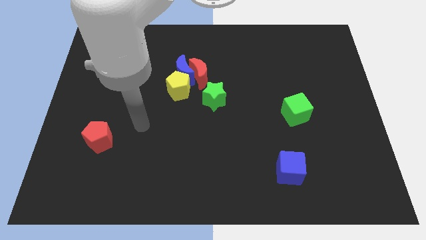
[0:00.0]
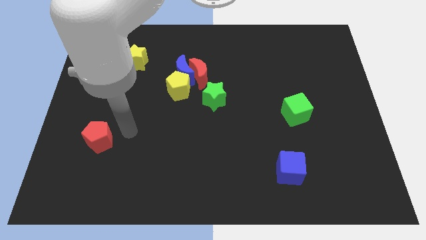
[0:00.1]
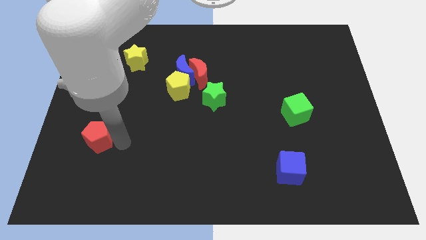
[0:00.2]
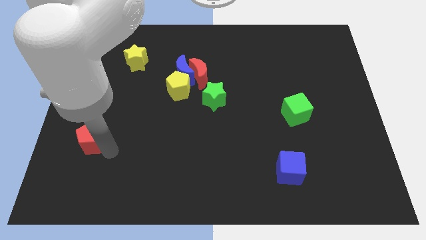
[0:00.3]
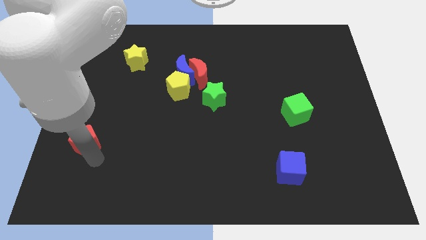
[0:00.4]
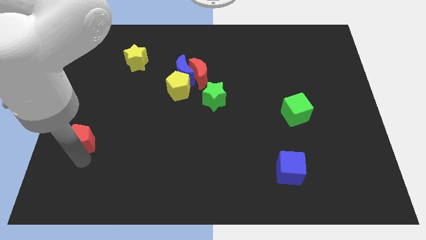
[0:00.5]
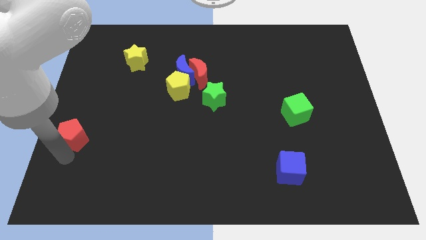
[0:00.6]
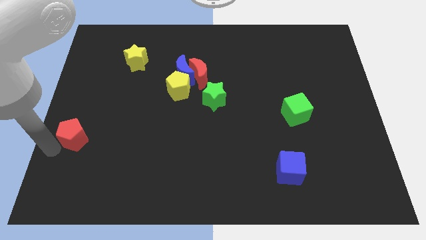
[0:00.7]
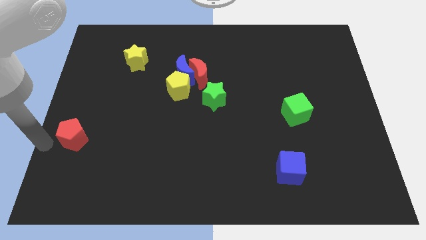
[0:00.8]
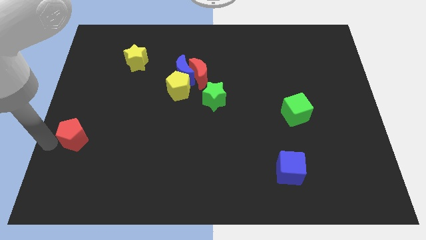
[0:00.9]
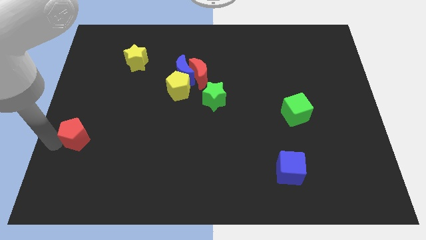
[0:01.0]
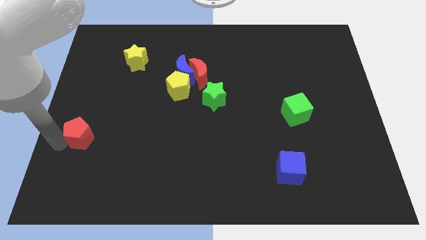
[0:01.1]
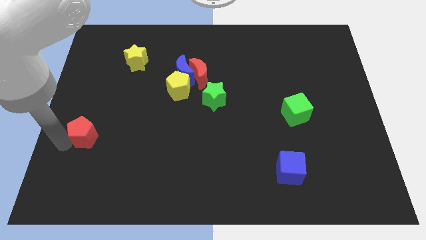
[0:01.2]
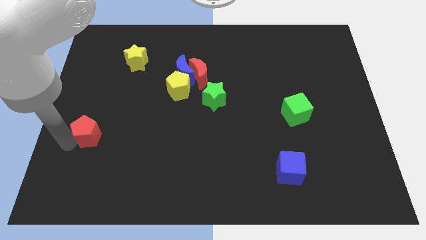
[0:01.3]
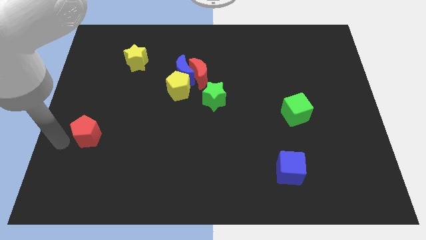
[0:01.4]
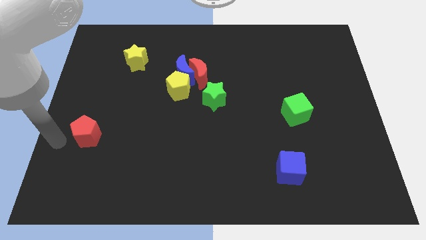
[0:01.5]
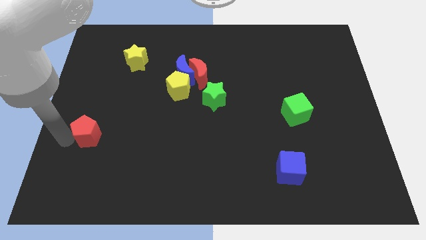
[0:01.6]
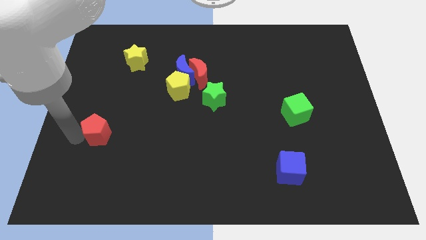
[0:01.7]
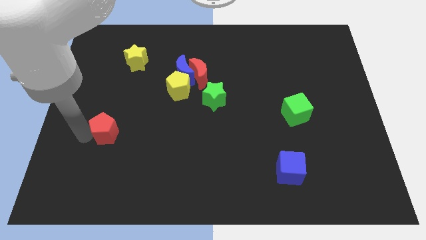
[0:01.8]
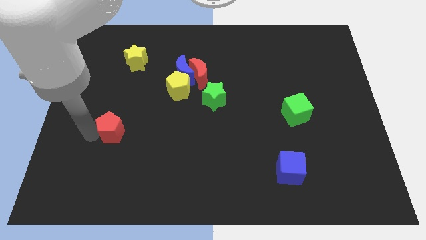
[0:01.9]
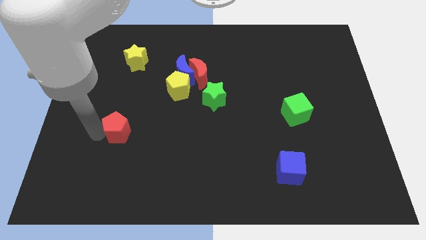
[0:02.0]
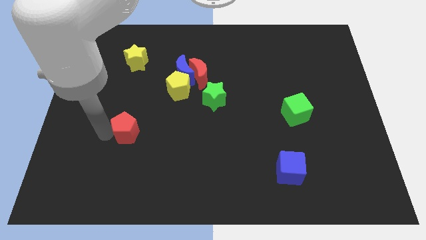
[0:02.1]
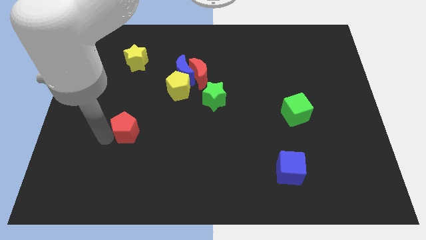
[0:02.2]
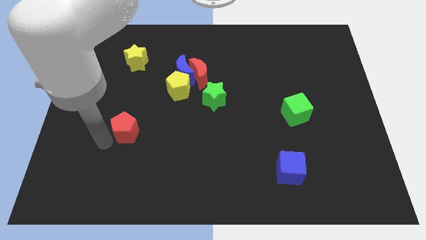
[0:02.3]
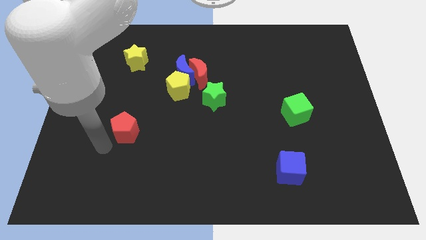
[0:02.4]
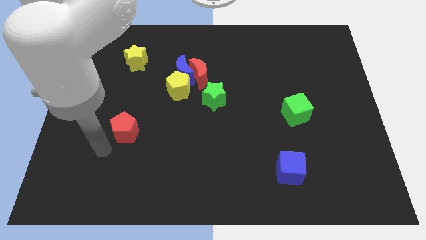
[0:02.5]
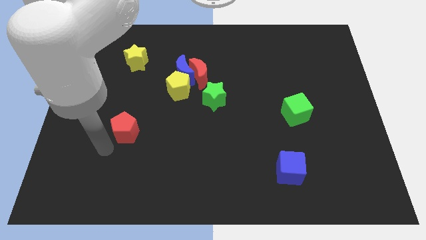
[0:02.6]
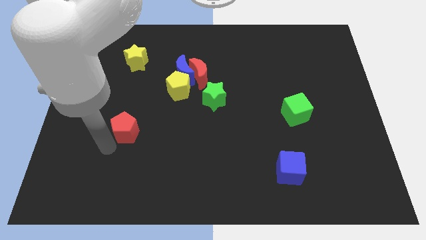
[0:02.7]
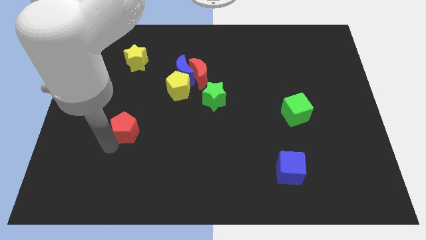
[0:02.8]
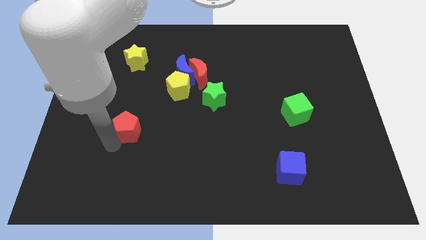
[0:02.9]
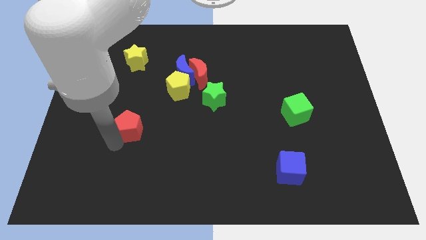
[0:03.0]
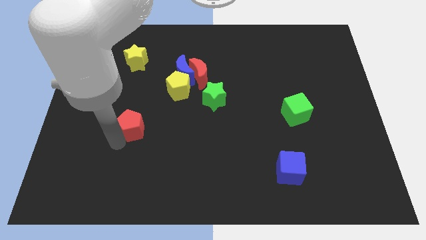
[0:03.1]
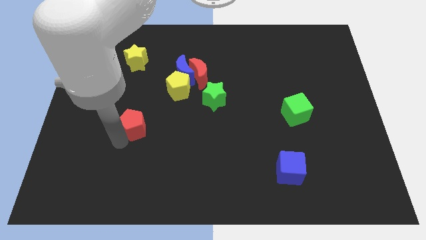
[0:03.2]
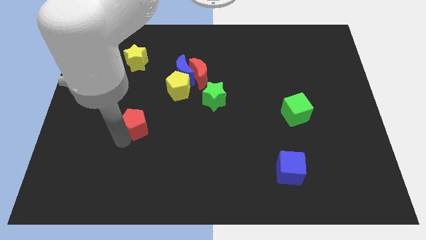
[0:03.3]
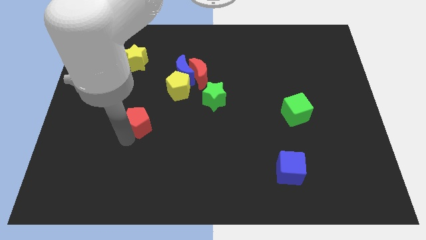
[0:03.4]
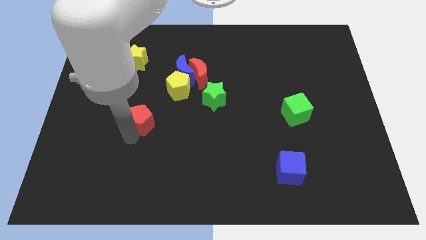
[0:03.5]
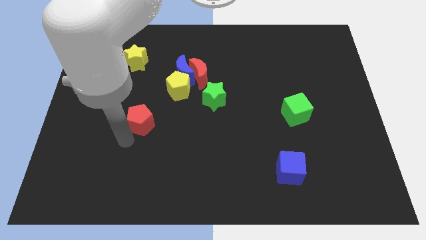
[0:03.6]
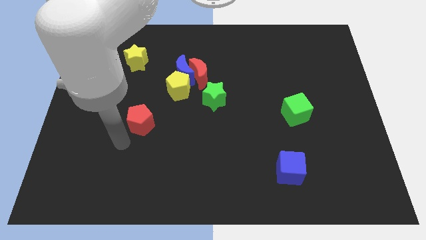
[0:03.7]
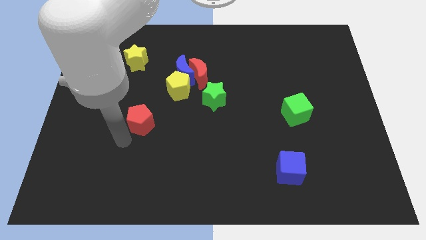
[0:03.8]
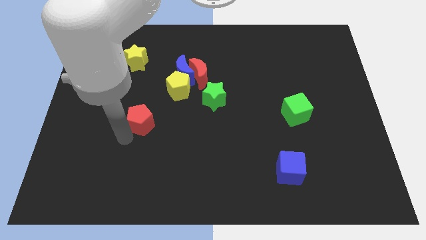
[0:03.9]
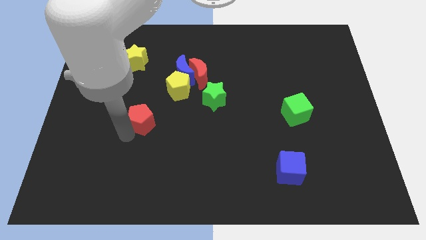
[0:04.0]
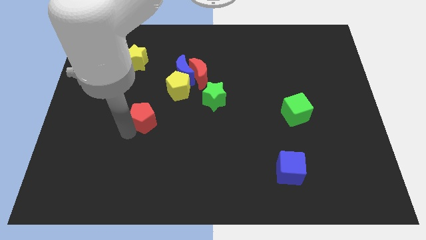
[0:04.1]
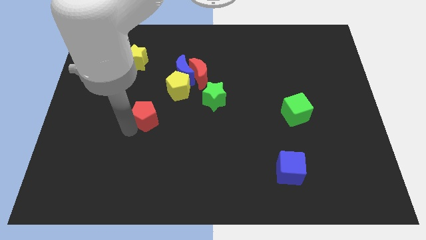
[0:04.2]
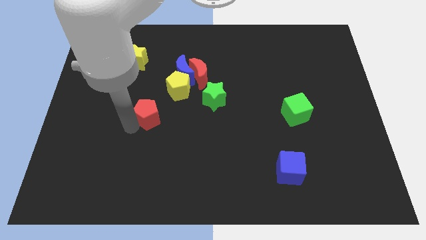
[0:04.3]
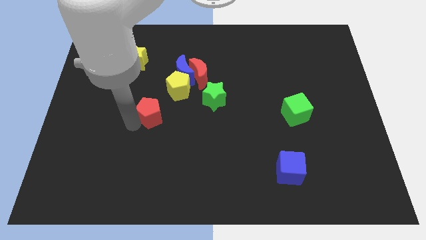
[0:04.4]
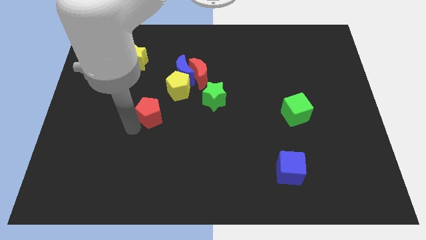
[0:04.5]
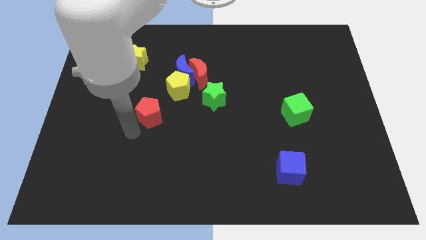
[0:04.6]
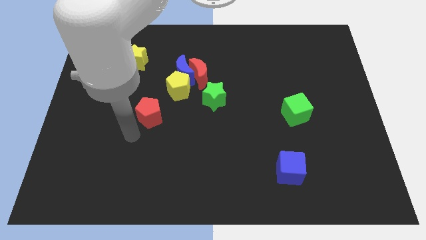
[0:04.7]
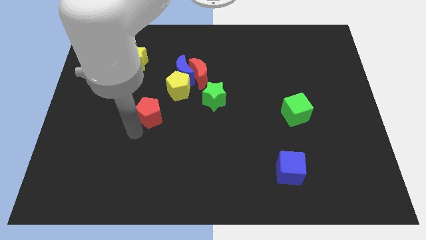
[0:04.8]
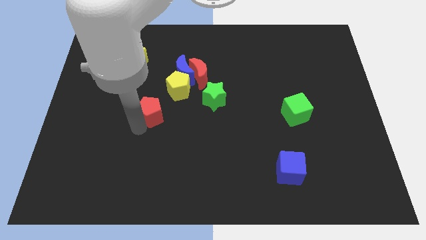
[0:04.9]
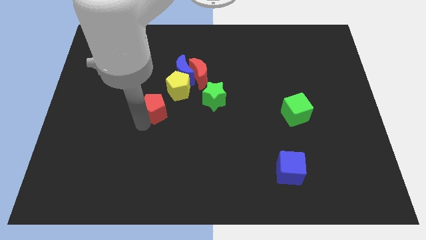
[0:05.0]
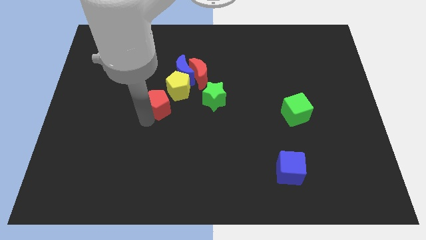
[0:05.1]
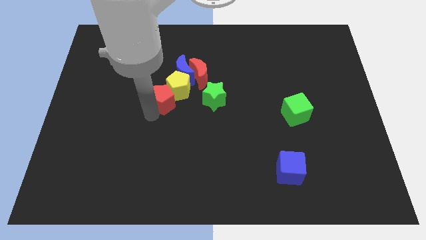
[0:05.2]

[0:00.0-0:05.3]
slide the red pentagon to the yellow pentagon

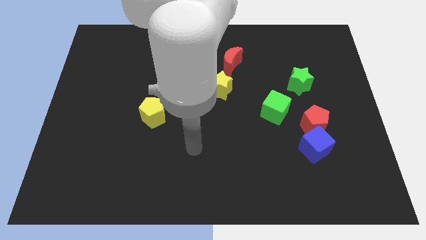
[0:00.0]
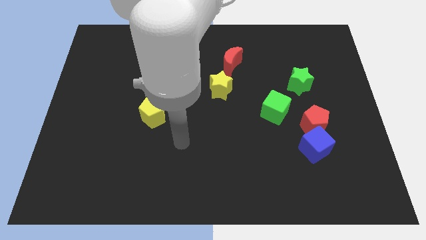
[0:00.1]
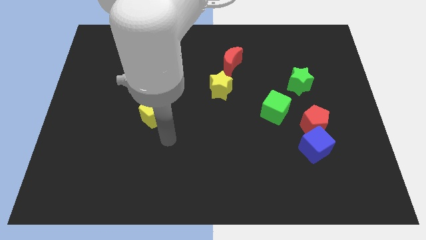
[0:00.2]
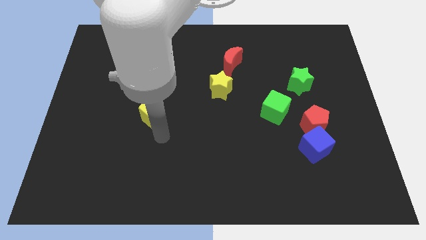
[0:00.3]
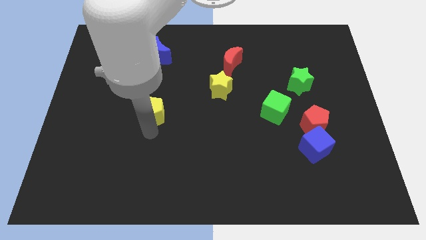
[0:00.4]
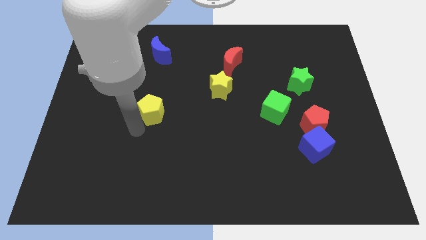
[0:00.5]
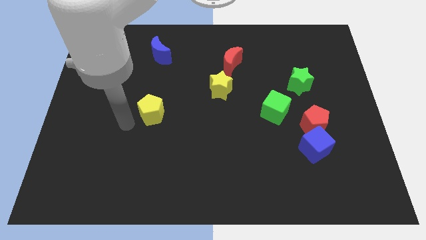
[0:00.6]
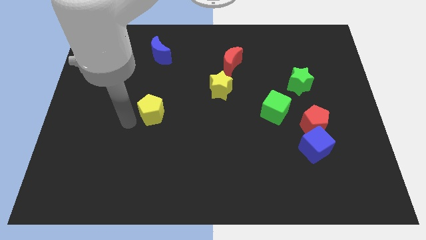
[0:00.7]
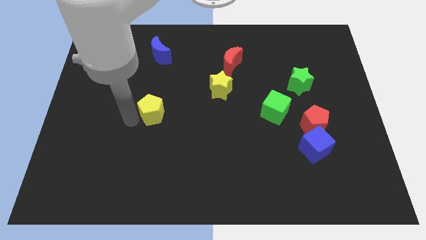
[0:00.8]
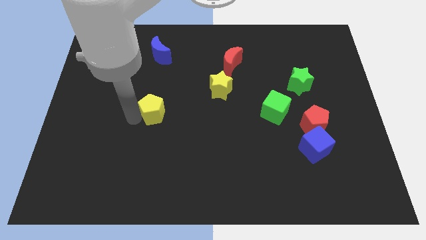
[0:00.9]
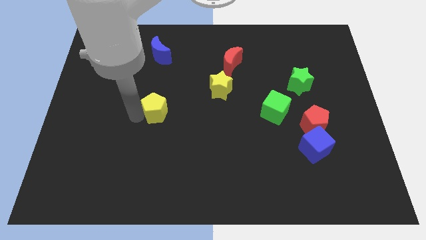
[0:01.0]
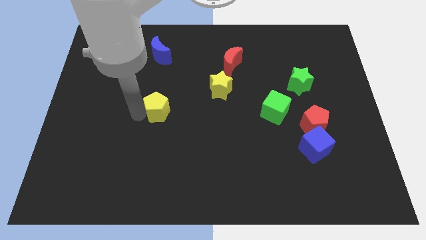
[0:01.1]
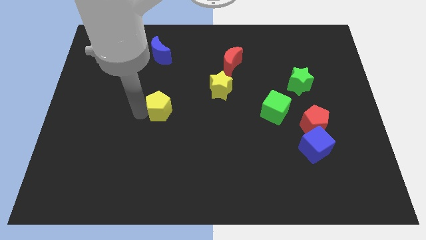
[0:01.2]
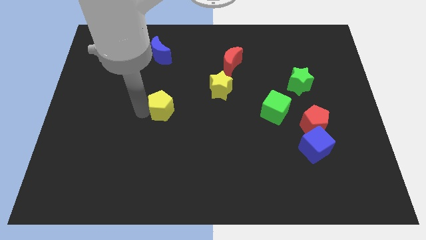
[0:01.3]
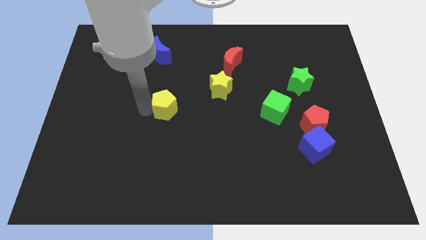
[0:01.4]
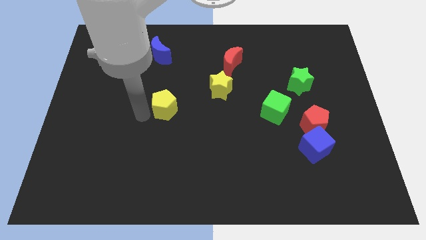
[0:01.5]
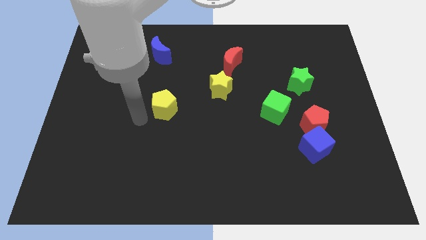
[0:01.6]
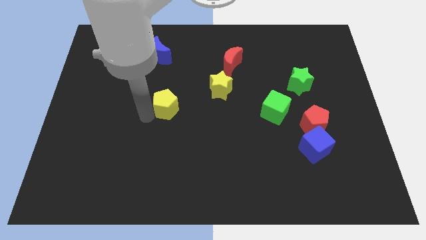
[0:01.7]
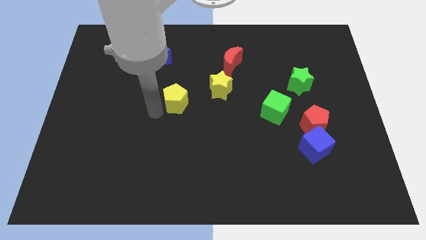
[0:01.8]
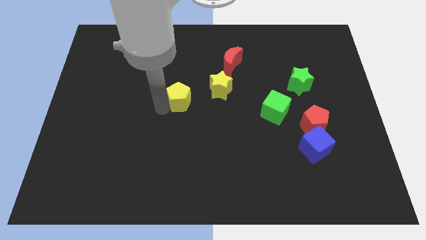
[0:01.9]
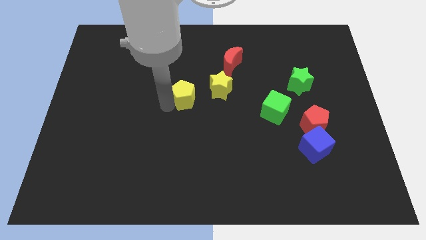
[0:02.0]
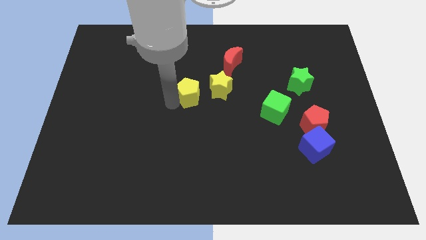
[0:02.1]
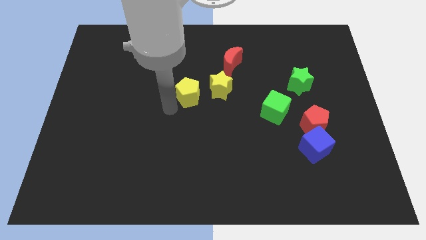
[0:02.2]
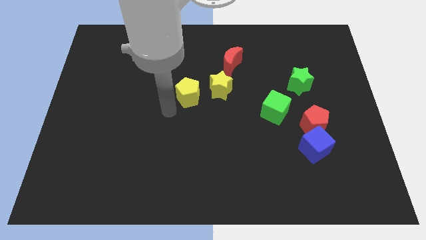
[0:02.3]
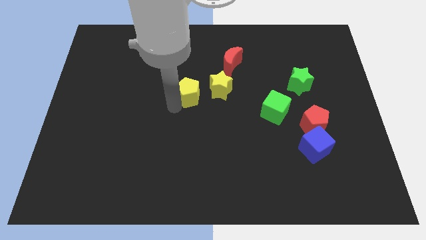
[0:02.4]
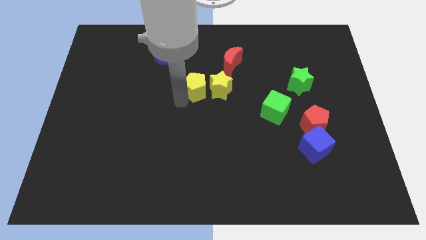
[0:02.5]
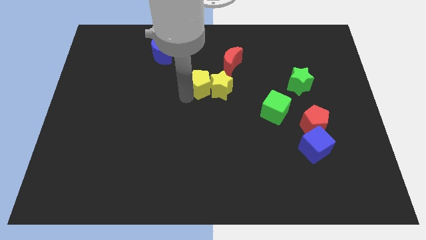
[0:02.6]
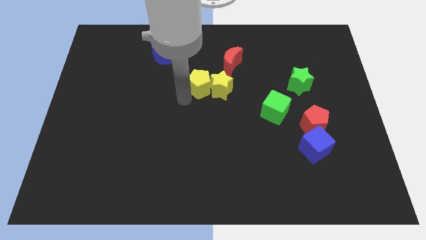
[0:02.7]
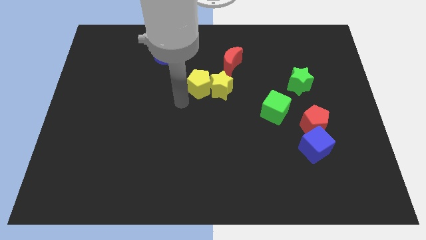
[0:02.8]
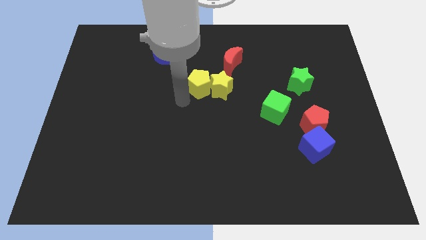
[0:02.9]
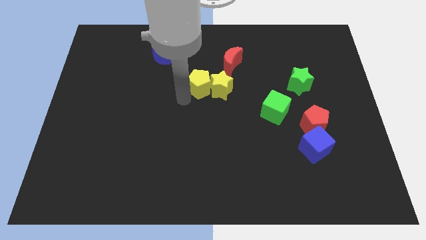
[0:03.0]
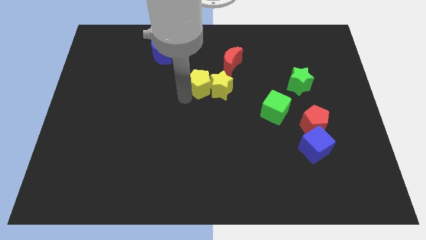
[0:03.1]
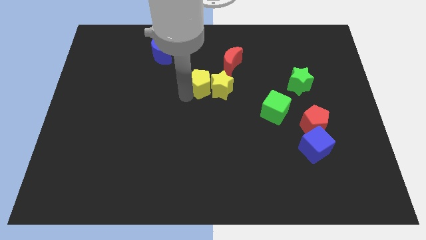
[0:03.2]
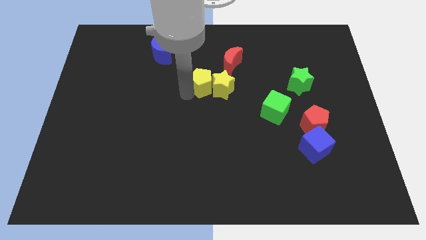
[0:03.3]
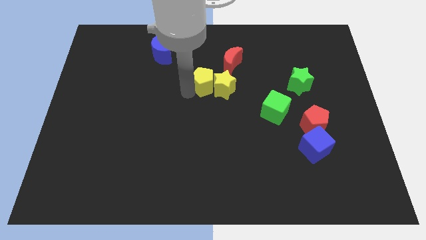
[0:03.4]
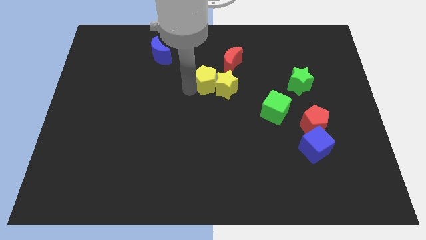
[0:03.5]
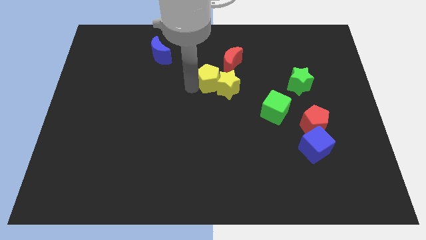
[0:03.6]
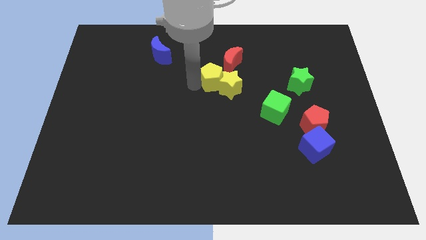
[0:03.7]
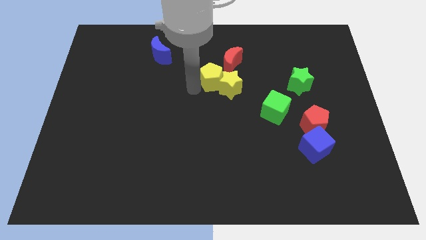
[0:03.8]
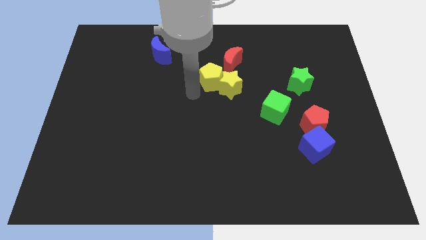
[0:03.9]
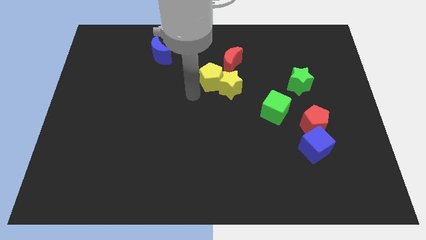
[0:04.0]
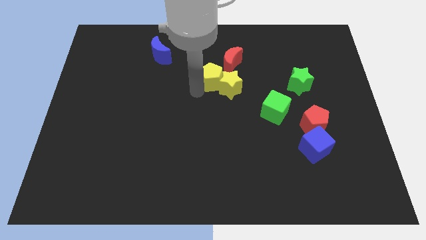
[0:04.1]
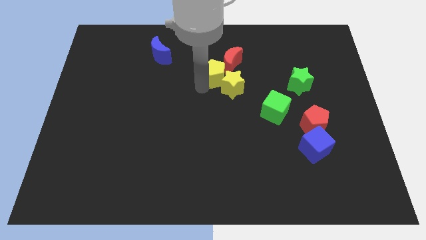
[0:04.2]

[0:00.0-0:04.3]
put the yellow pentagon to the red moon
